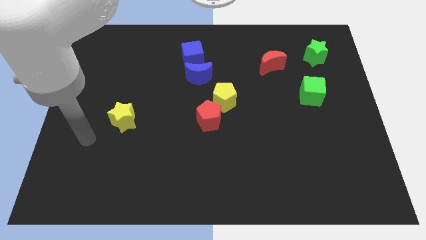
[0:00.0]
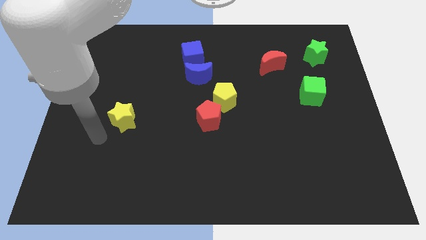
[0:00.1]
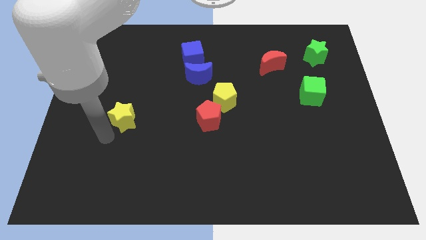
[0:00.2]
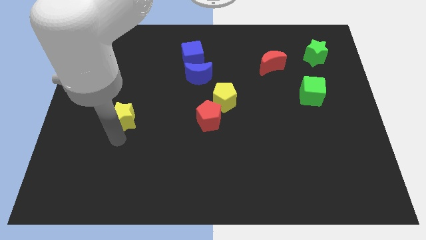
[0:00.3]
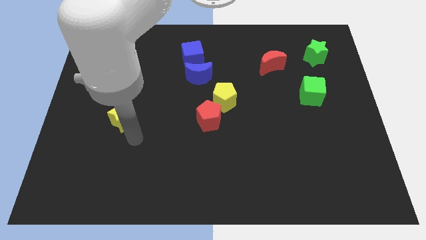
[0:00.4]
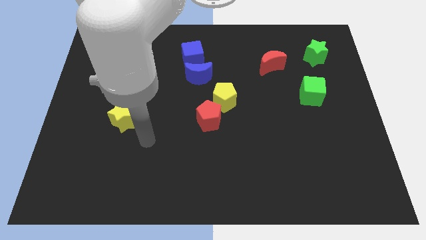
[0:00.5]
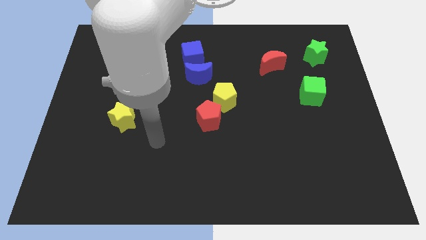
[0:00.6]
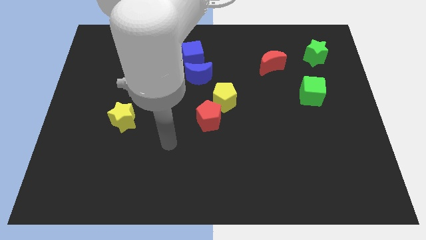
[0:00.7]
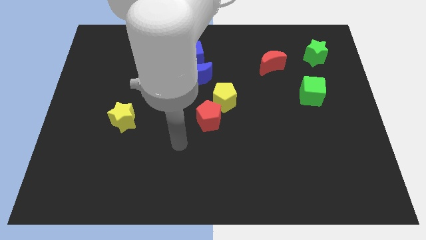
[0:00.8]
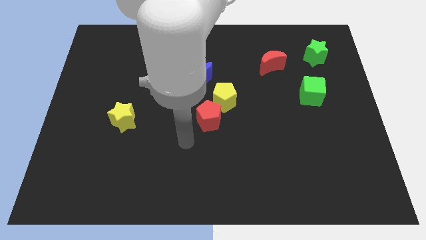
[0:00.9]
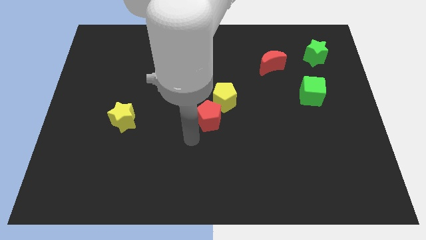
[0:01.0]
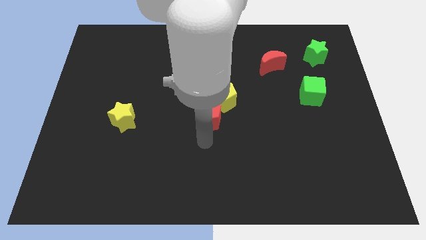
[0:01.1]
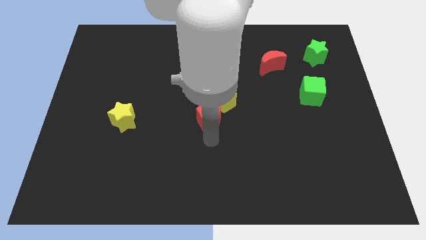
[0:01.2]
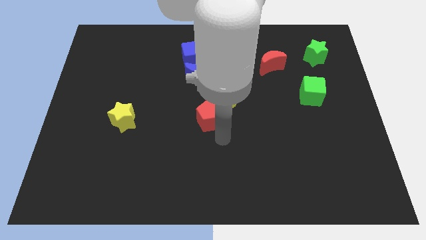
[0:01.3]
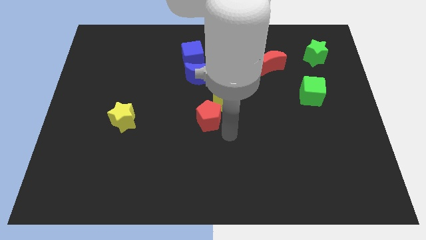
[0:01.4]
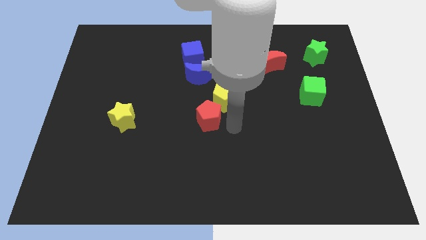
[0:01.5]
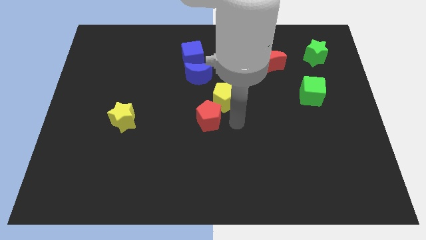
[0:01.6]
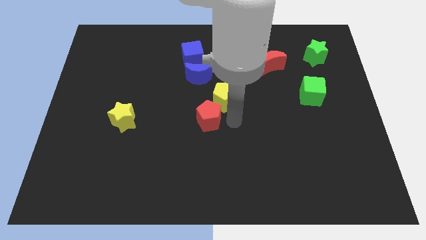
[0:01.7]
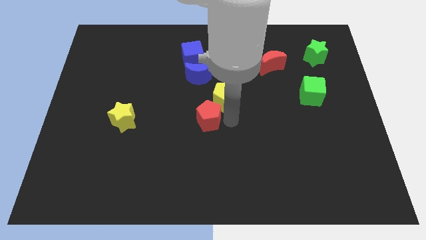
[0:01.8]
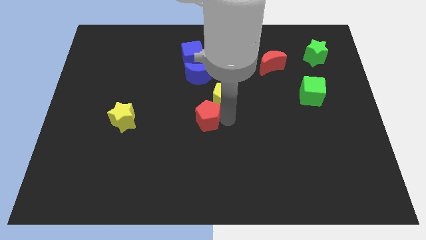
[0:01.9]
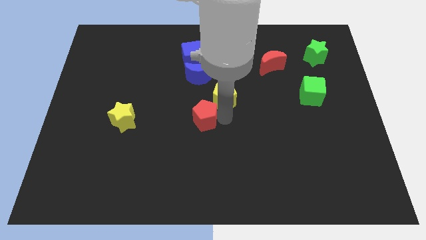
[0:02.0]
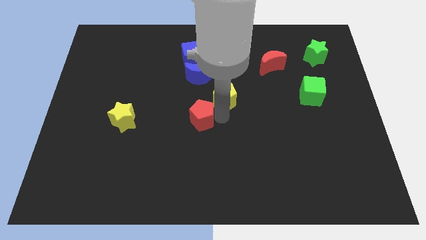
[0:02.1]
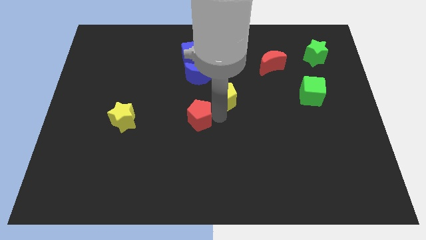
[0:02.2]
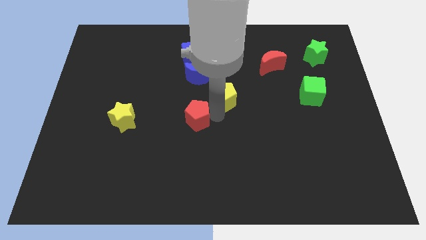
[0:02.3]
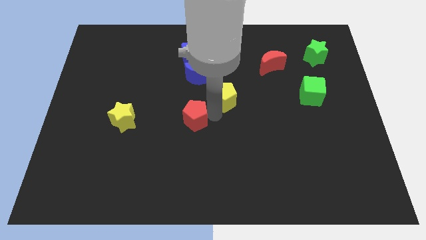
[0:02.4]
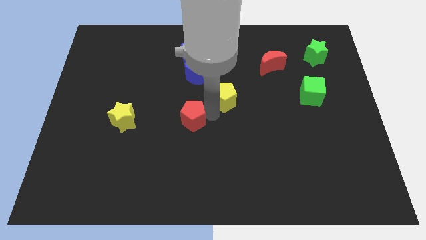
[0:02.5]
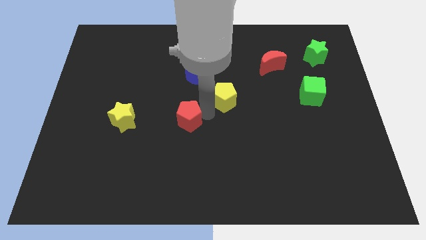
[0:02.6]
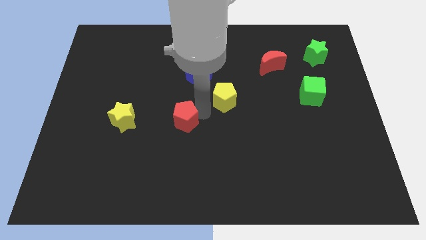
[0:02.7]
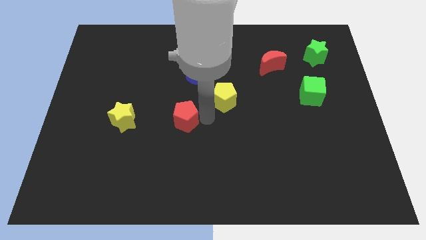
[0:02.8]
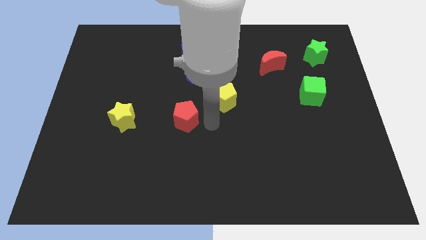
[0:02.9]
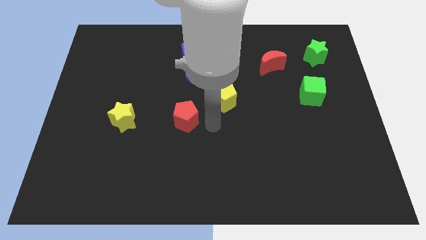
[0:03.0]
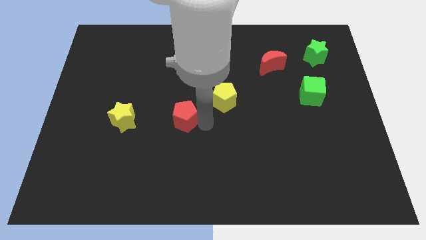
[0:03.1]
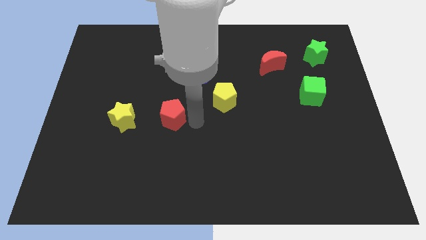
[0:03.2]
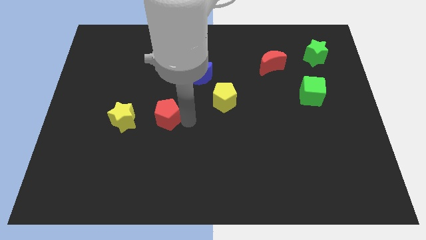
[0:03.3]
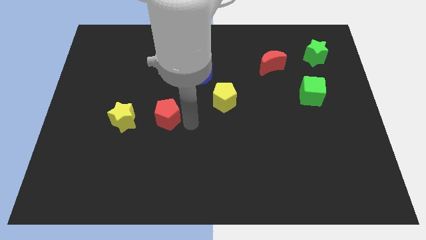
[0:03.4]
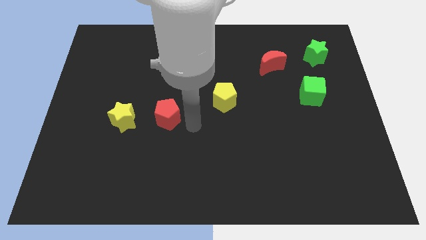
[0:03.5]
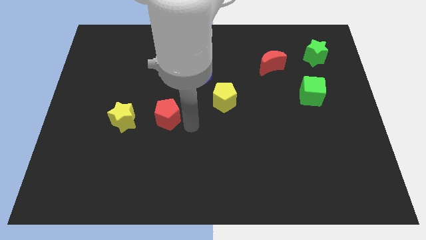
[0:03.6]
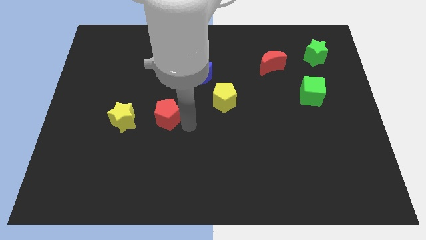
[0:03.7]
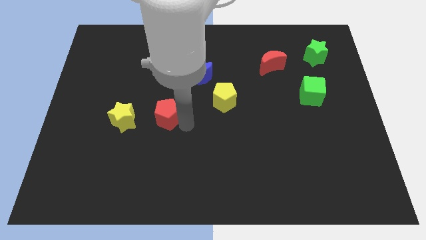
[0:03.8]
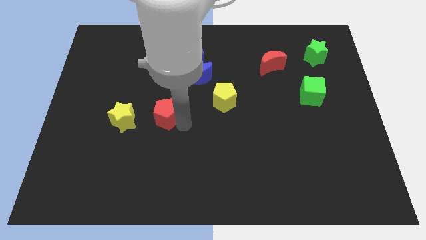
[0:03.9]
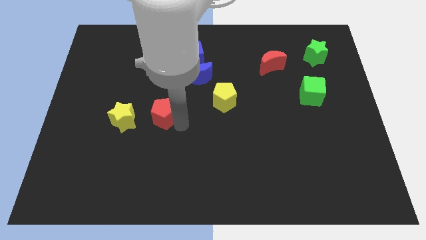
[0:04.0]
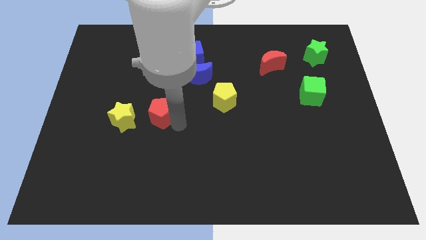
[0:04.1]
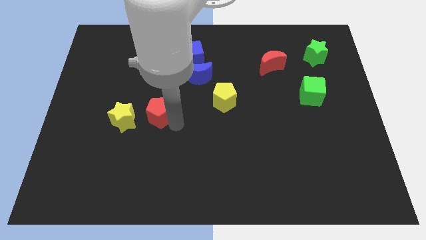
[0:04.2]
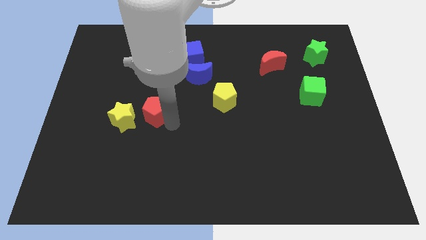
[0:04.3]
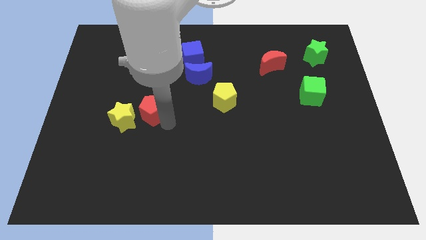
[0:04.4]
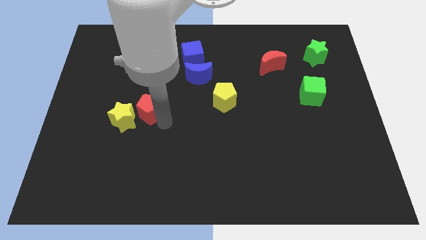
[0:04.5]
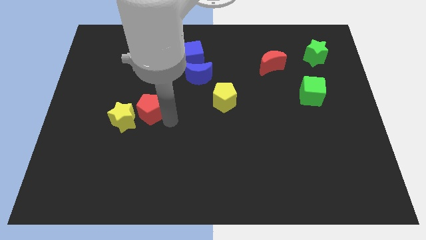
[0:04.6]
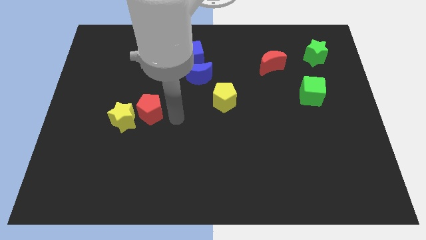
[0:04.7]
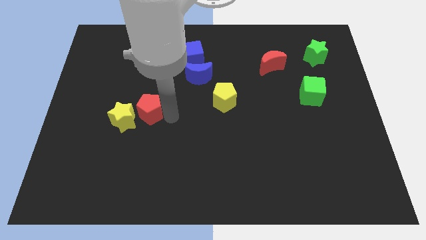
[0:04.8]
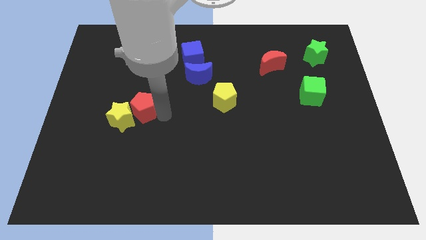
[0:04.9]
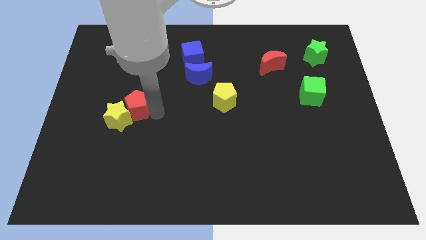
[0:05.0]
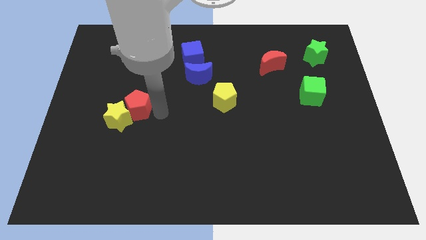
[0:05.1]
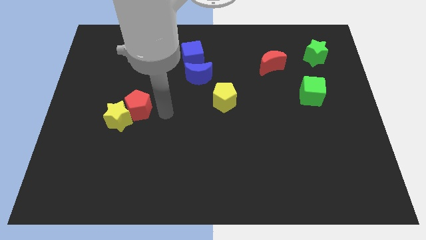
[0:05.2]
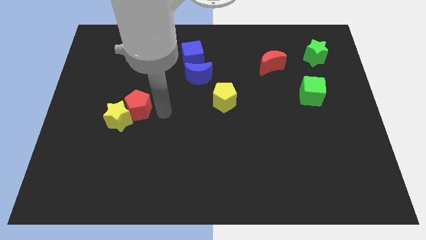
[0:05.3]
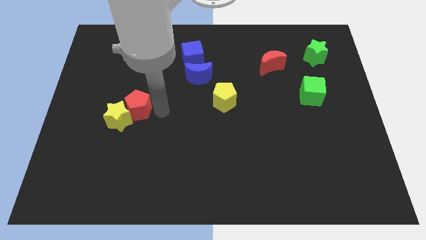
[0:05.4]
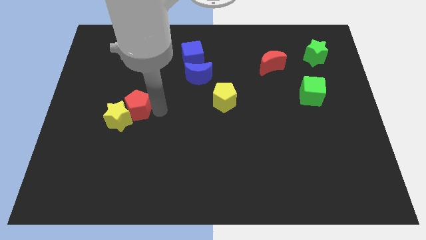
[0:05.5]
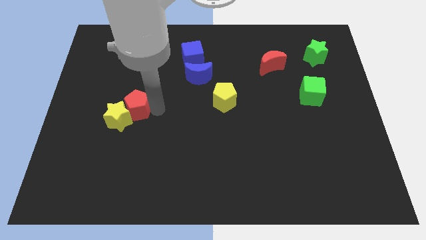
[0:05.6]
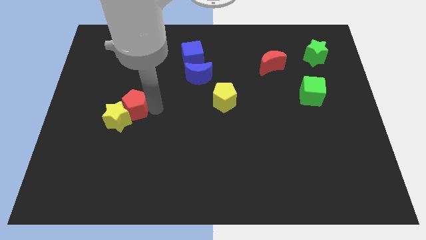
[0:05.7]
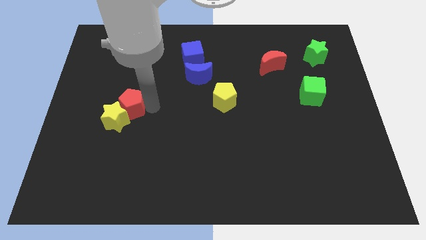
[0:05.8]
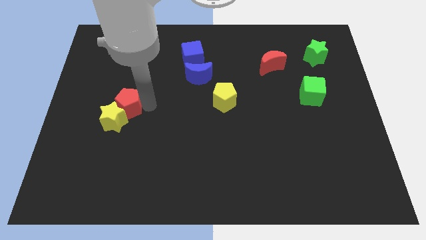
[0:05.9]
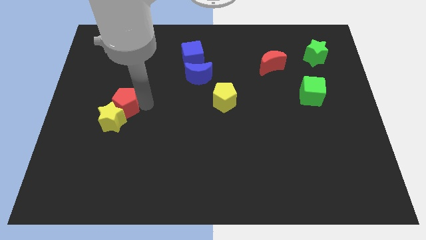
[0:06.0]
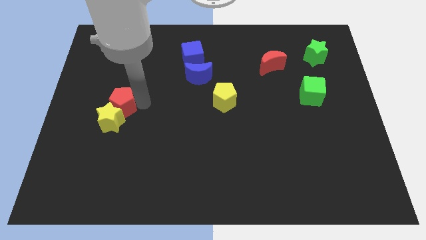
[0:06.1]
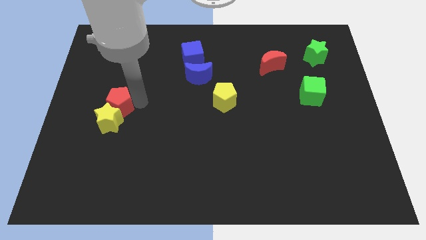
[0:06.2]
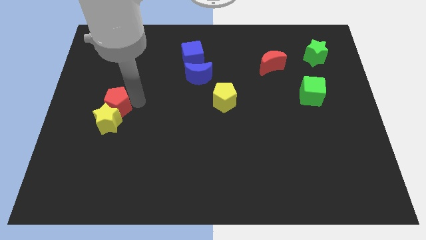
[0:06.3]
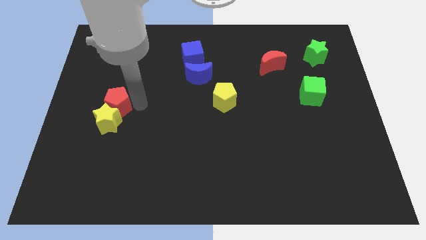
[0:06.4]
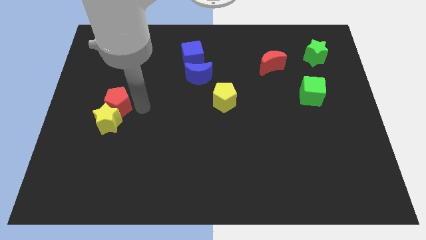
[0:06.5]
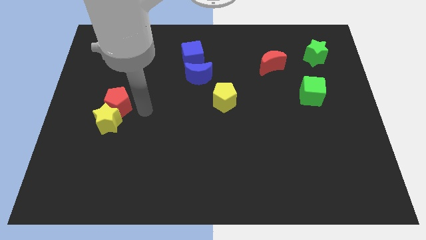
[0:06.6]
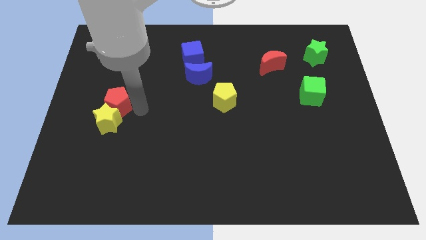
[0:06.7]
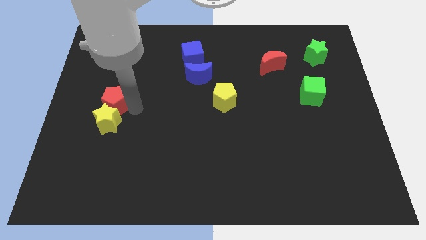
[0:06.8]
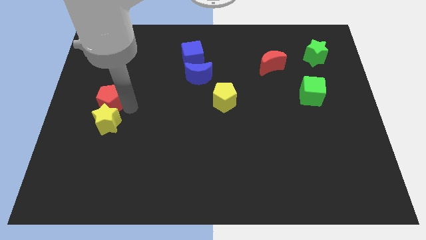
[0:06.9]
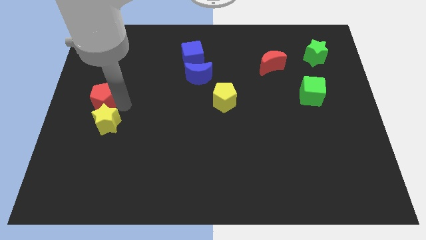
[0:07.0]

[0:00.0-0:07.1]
move the red pentagon to the center left
